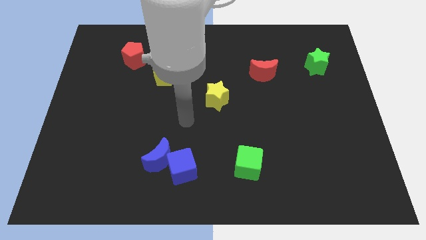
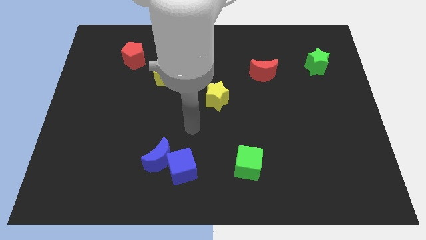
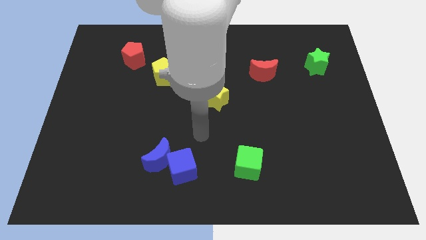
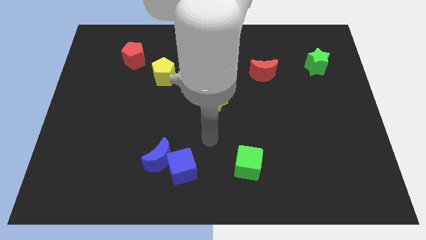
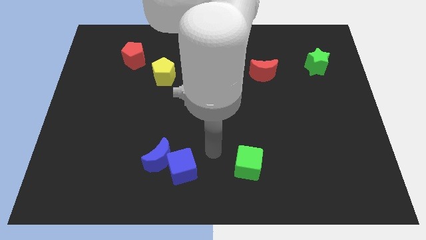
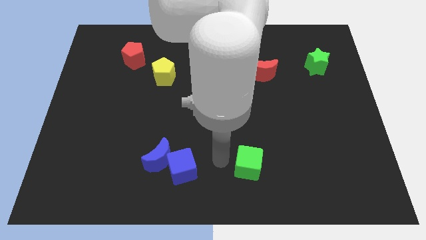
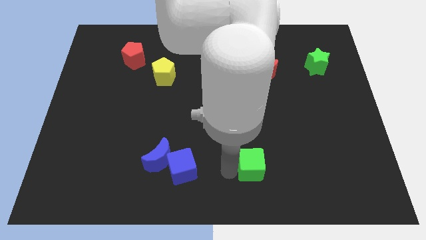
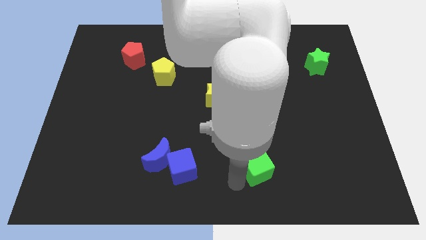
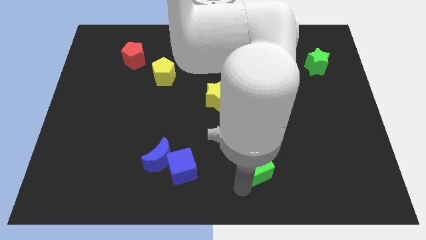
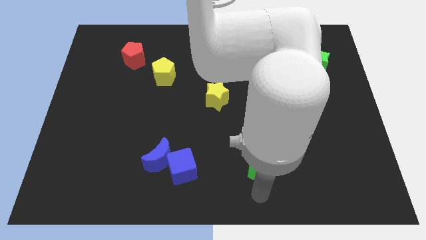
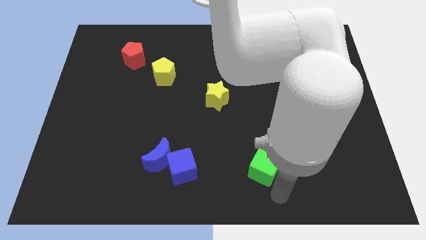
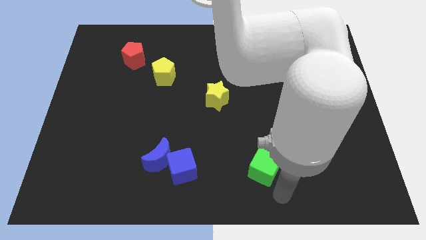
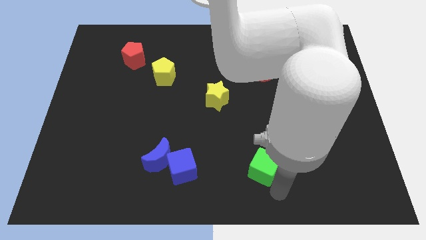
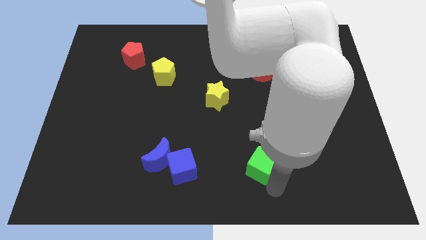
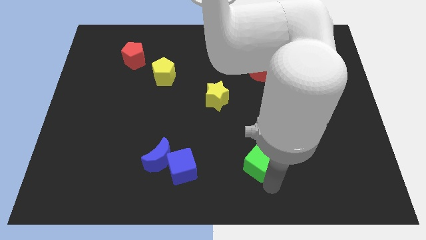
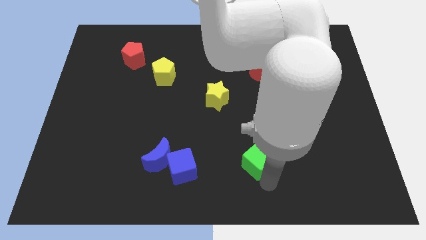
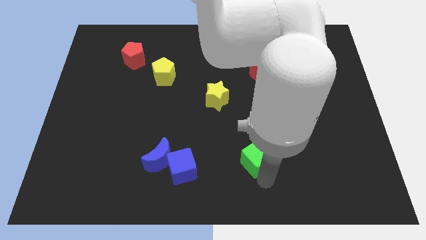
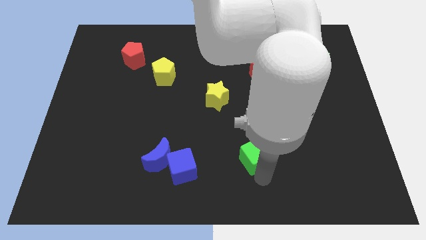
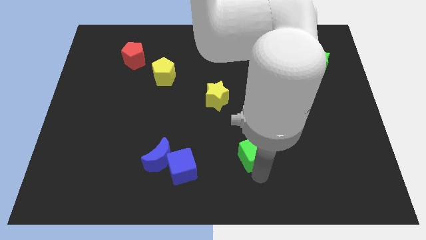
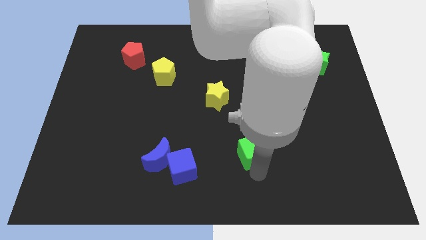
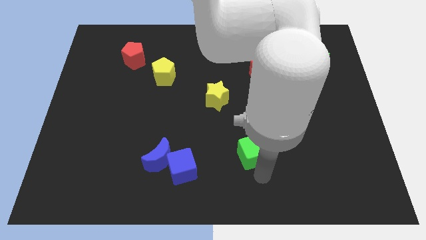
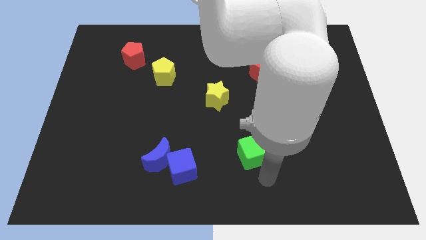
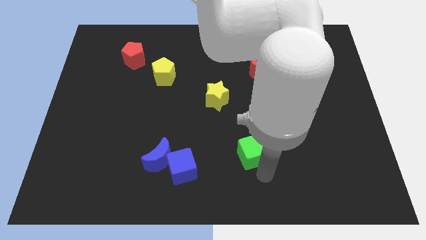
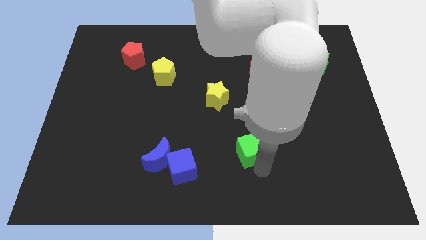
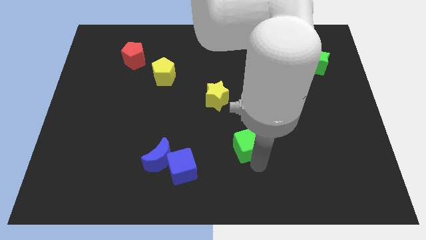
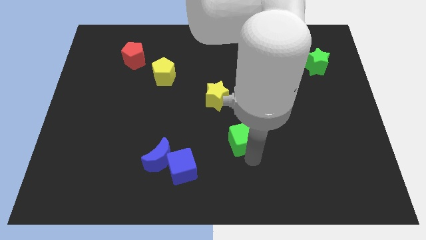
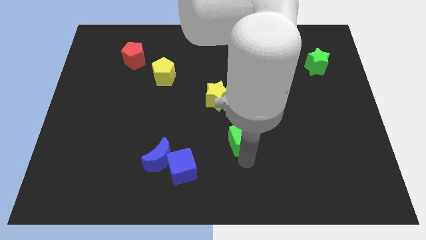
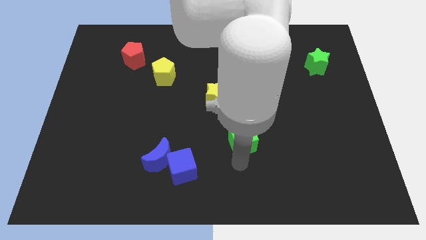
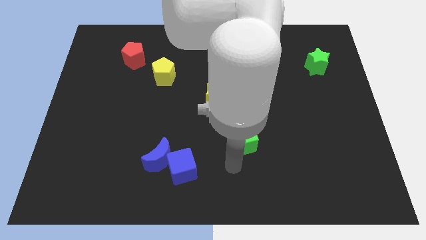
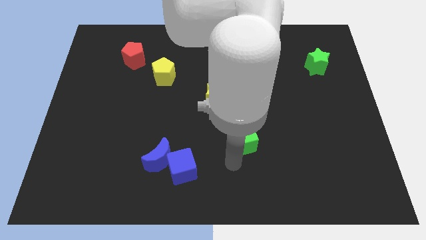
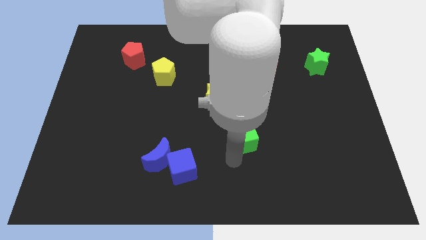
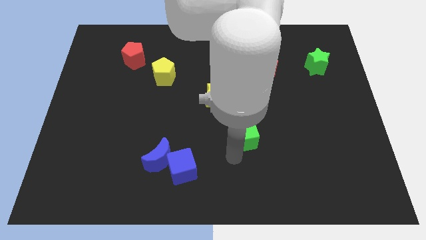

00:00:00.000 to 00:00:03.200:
slightly move the green cube upwards

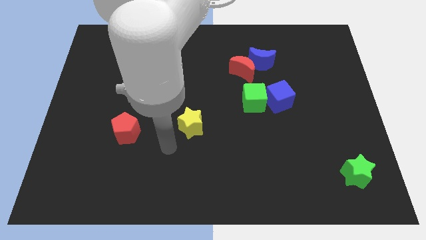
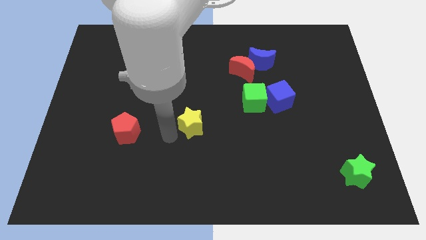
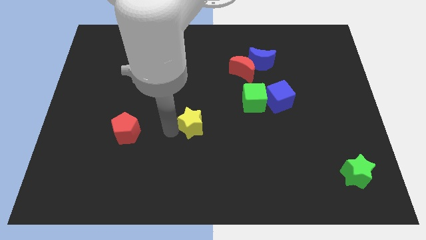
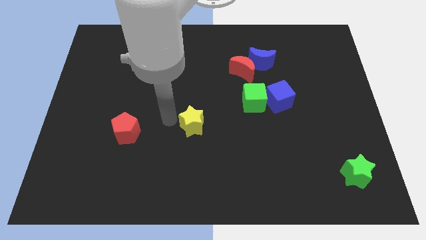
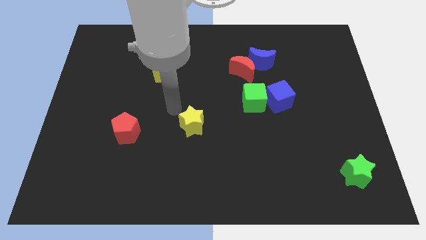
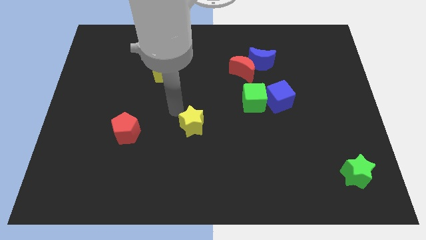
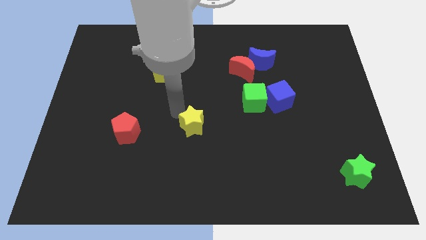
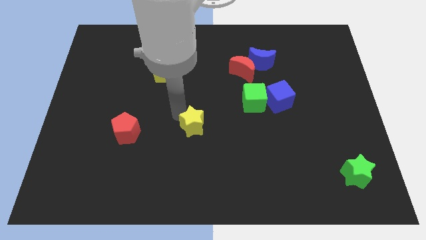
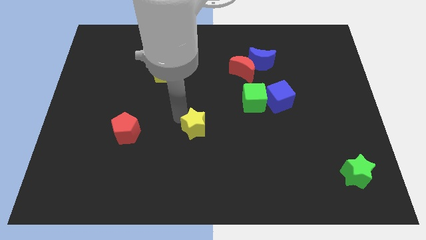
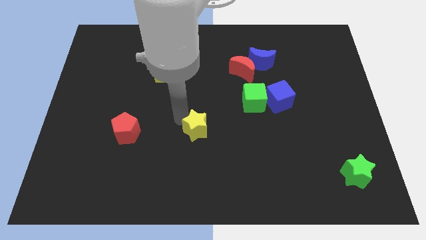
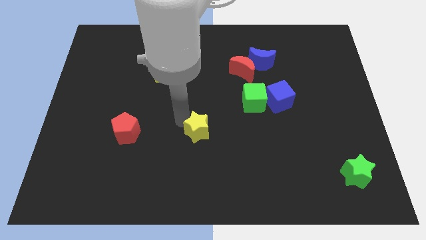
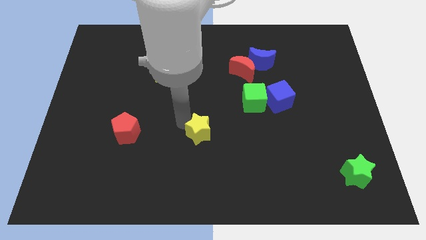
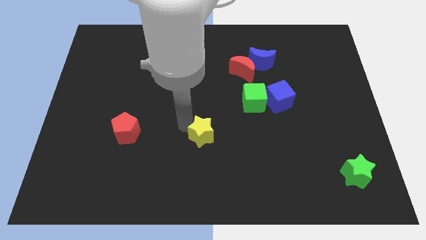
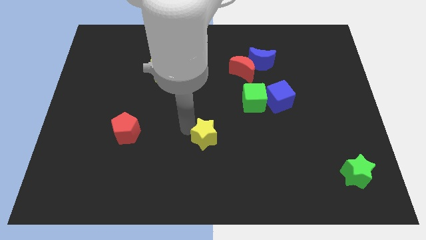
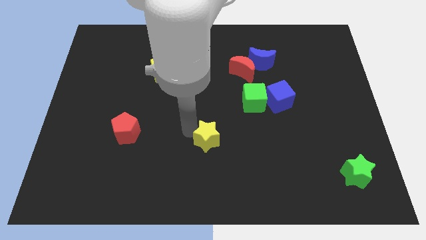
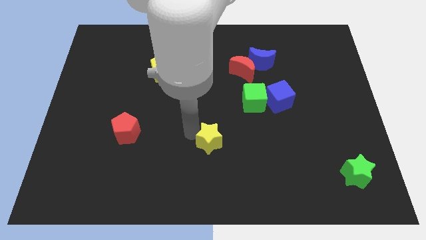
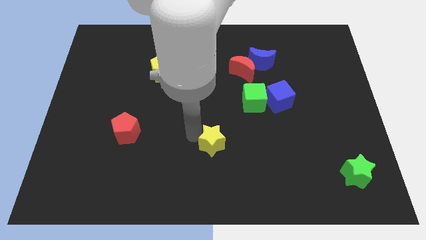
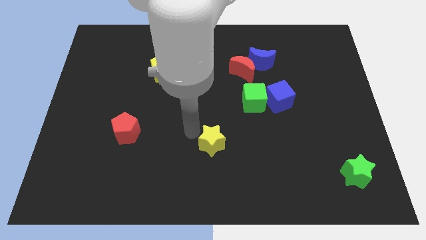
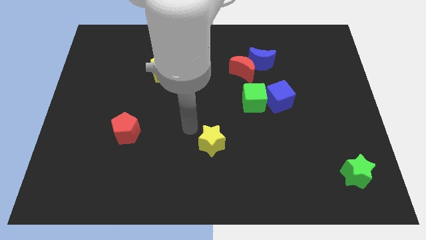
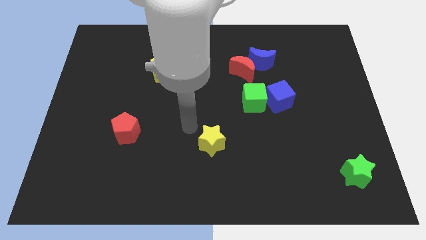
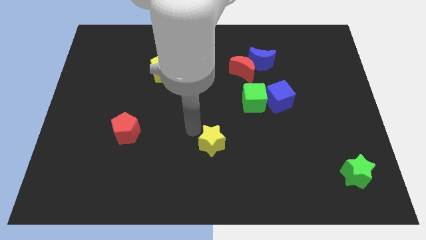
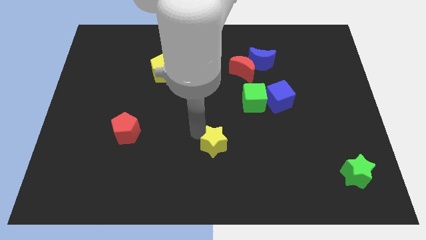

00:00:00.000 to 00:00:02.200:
move the yellow star diagonally down and right a bit

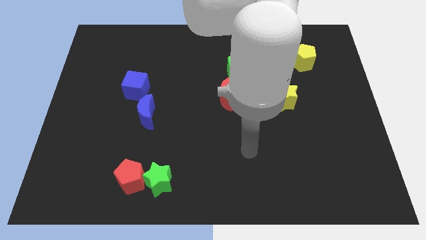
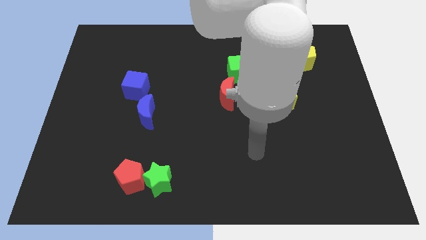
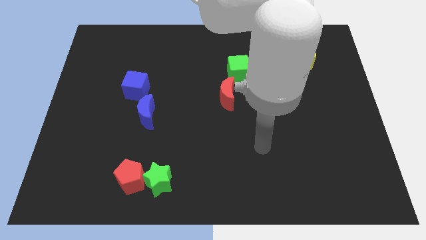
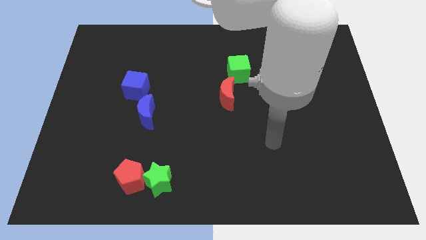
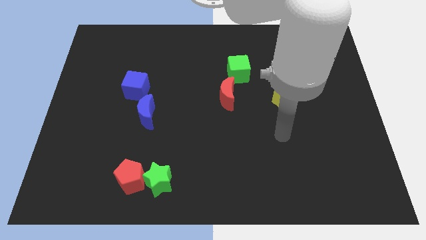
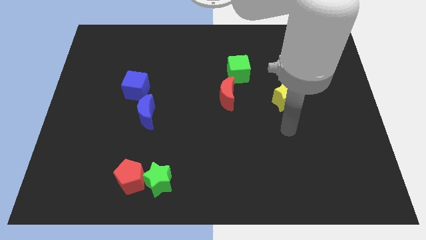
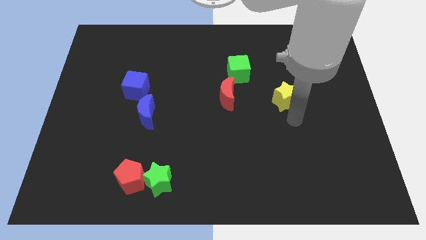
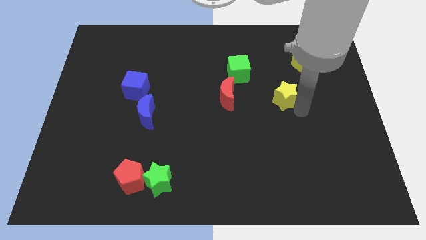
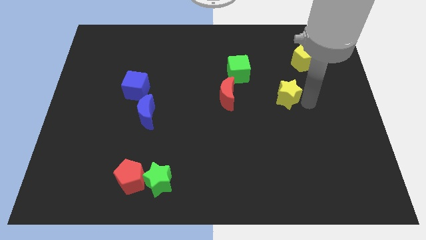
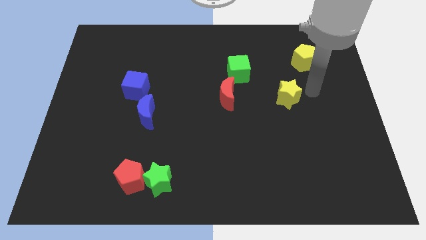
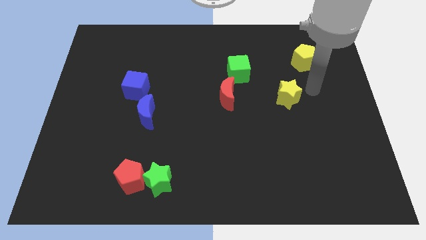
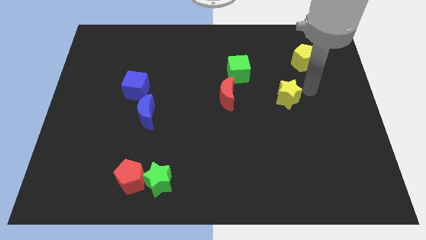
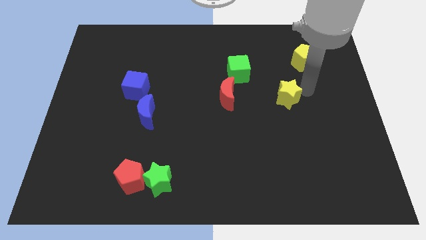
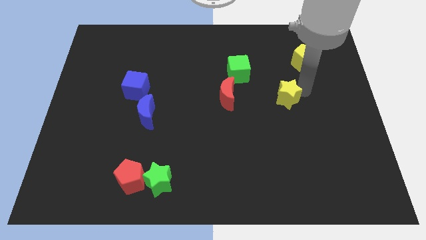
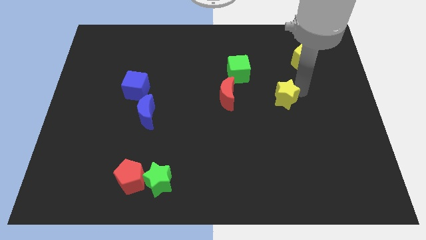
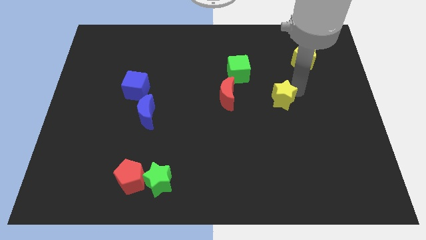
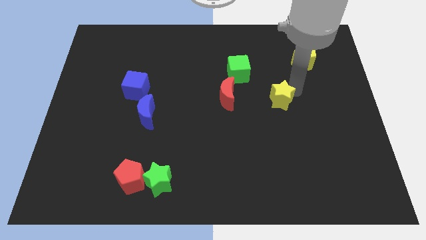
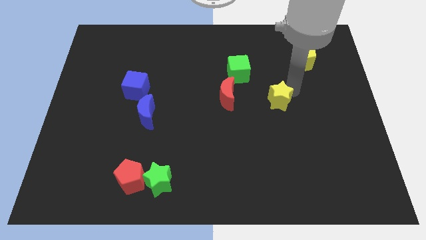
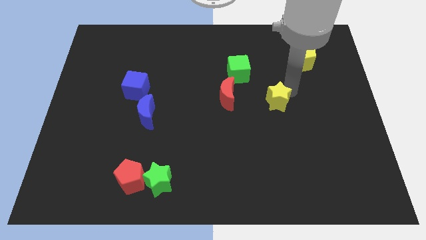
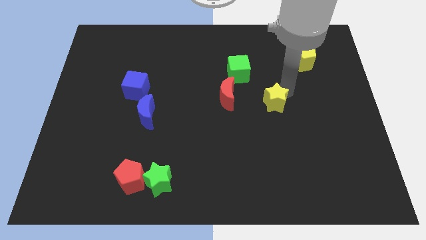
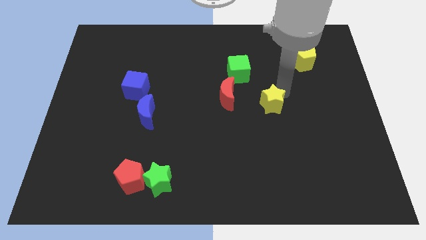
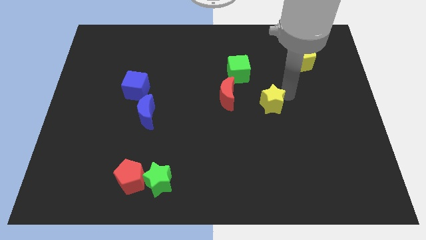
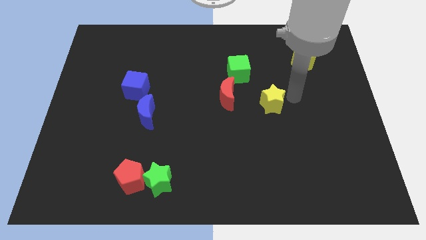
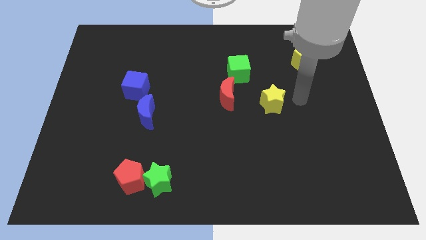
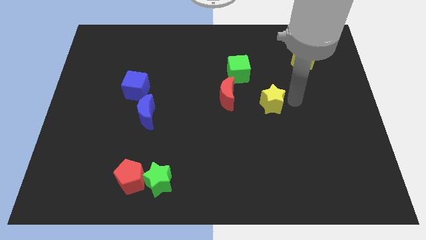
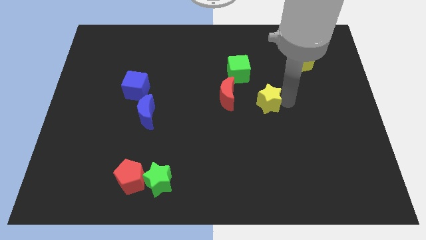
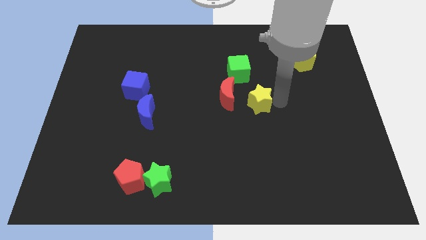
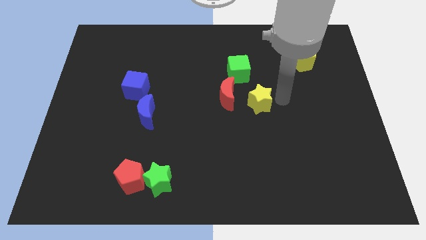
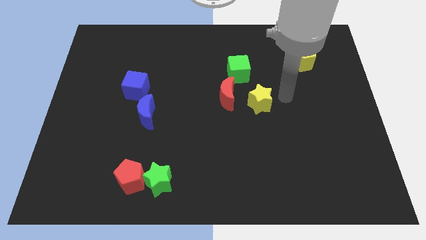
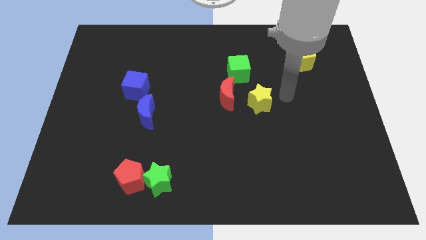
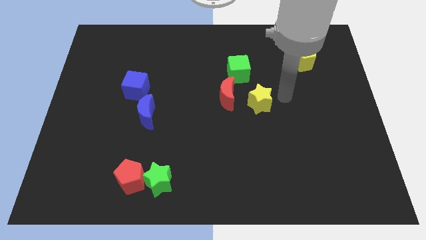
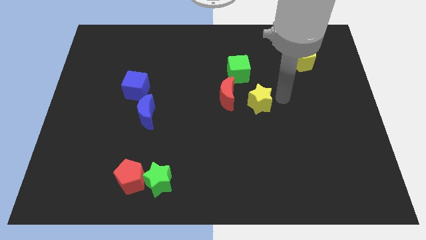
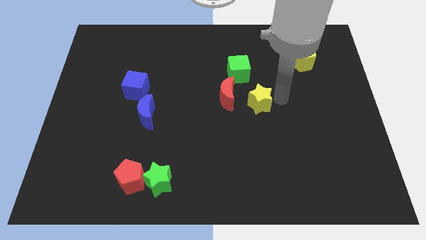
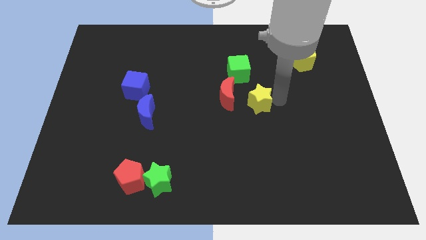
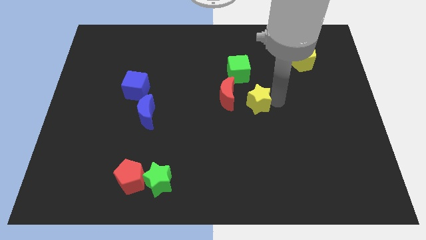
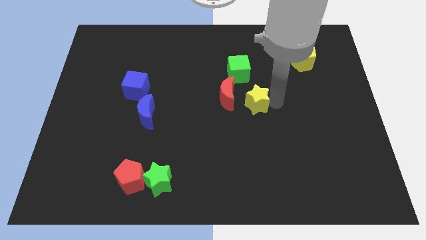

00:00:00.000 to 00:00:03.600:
slightly slide the yellow star to the left
